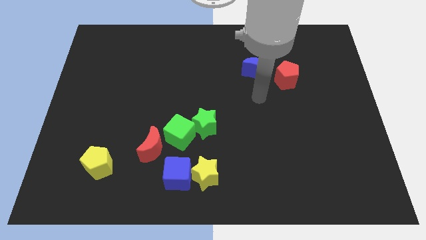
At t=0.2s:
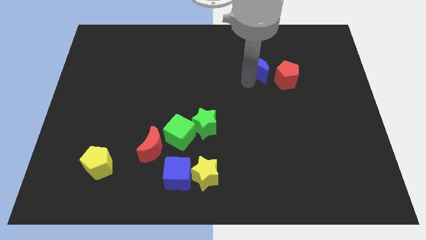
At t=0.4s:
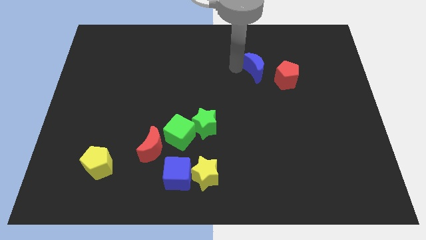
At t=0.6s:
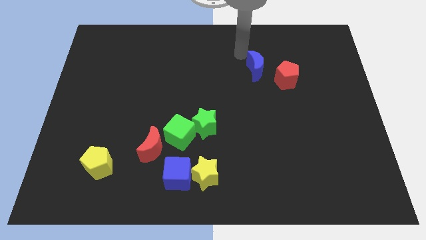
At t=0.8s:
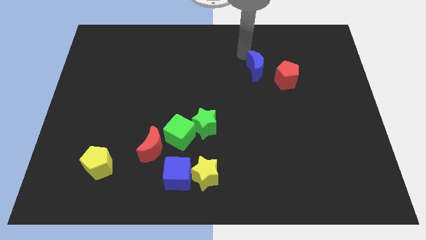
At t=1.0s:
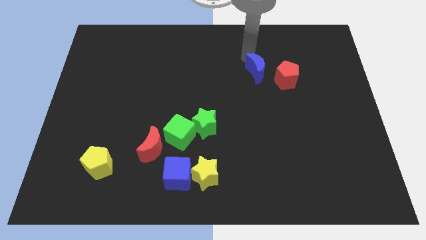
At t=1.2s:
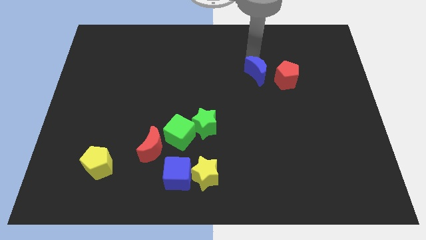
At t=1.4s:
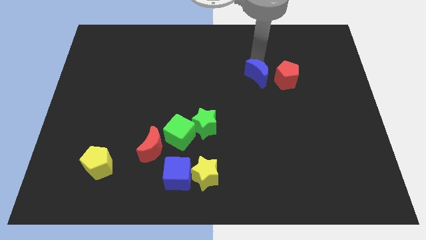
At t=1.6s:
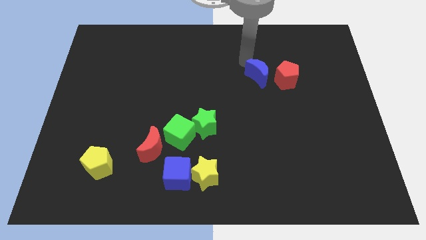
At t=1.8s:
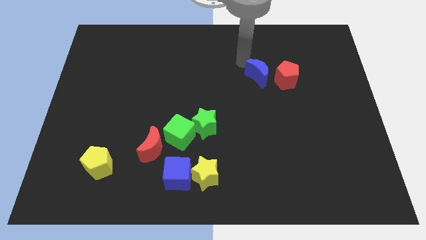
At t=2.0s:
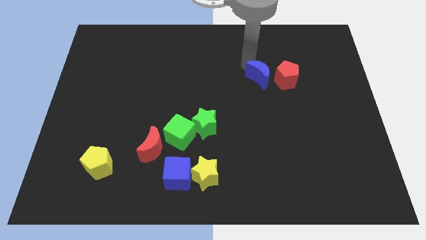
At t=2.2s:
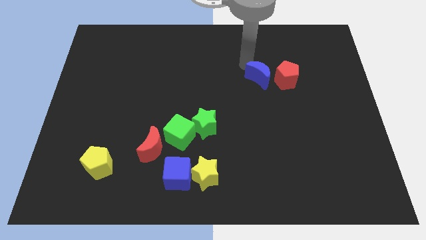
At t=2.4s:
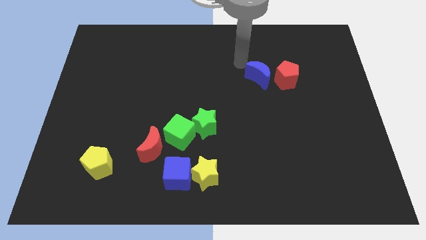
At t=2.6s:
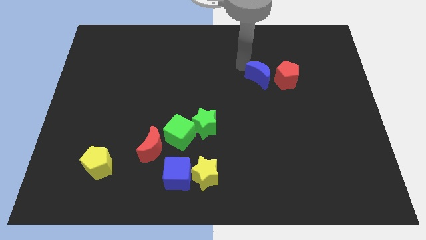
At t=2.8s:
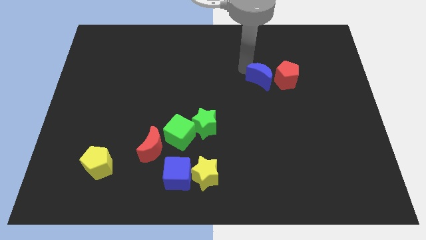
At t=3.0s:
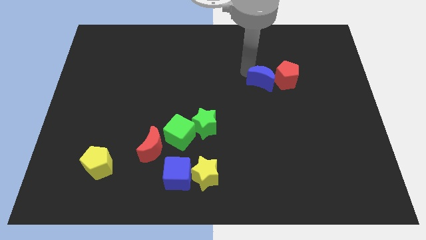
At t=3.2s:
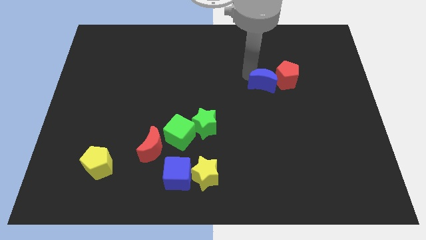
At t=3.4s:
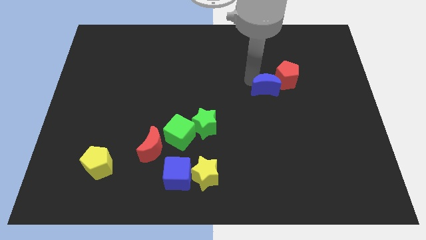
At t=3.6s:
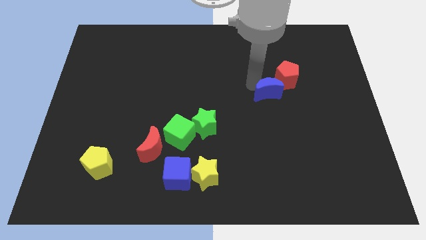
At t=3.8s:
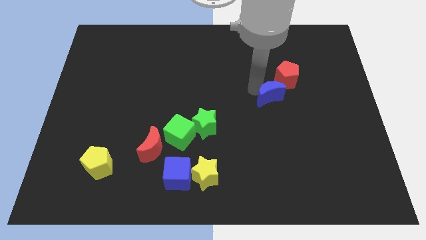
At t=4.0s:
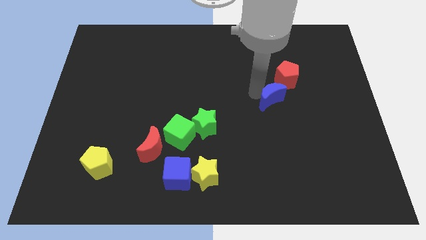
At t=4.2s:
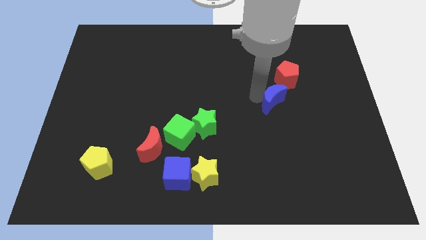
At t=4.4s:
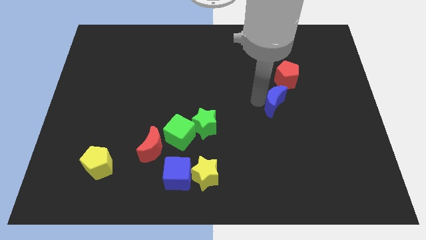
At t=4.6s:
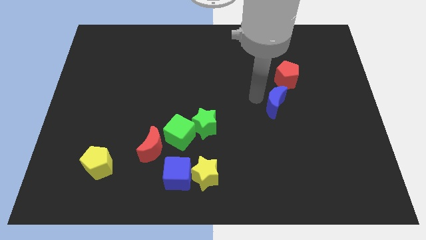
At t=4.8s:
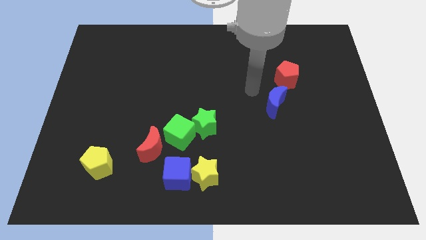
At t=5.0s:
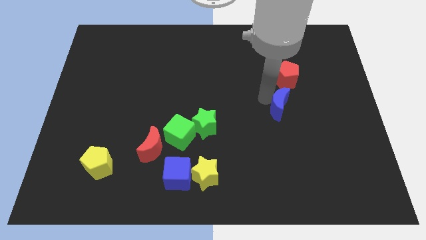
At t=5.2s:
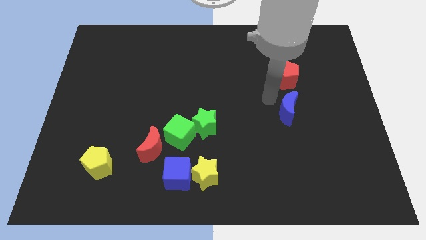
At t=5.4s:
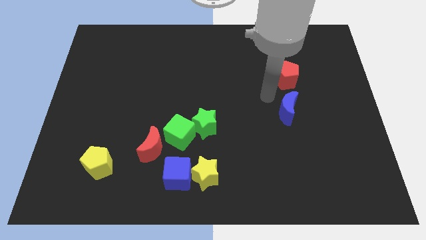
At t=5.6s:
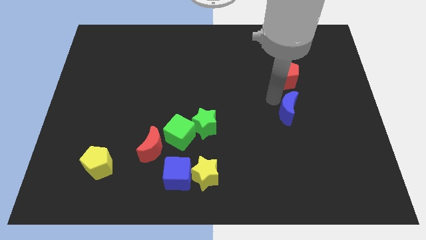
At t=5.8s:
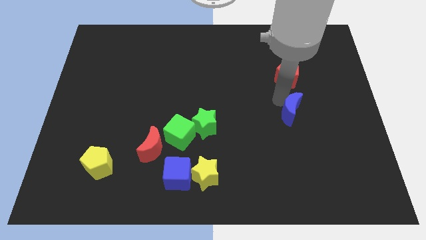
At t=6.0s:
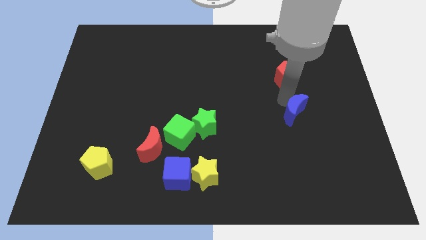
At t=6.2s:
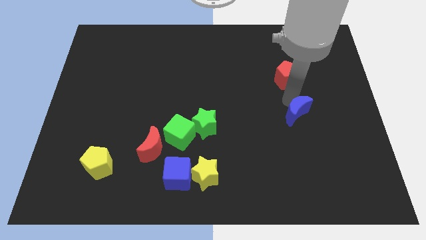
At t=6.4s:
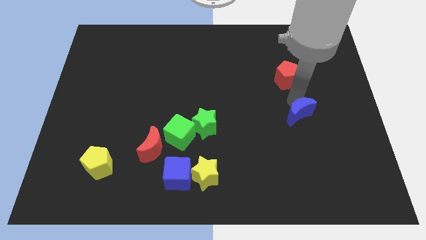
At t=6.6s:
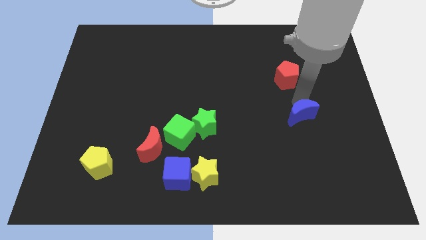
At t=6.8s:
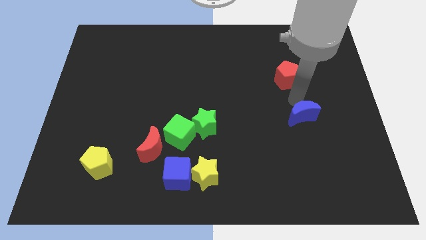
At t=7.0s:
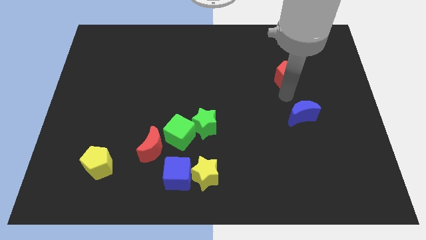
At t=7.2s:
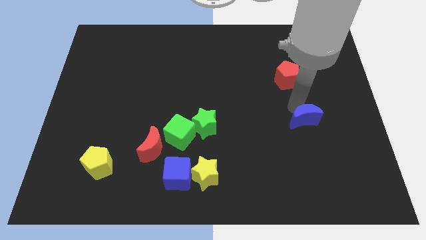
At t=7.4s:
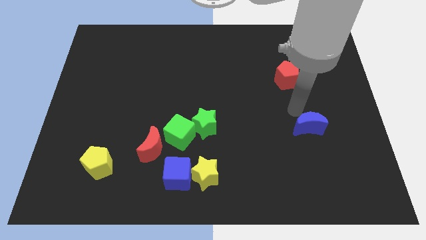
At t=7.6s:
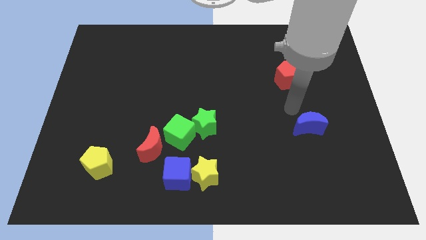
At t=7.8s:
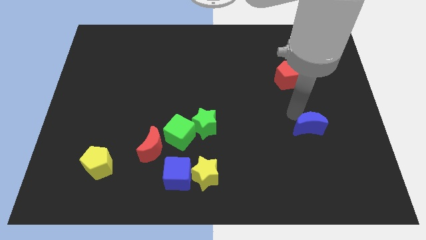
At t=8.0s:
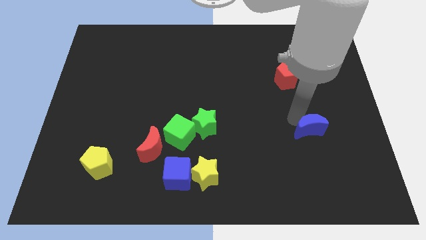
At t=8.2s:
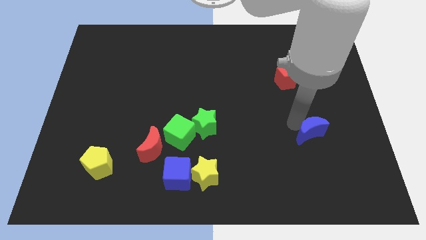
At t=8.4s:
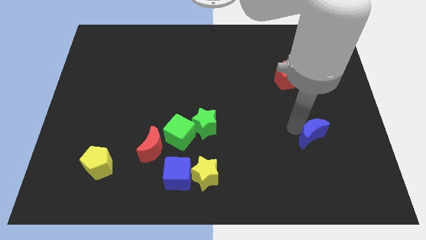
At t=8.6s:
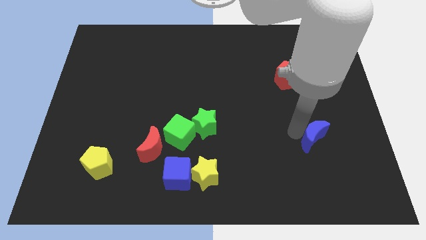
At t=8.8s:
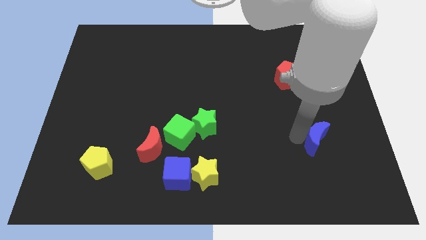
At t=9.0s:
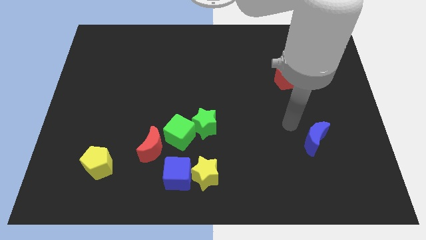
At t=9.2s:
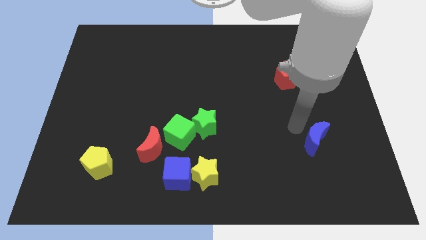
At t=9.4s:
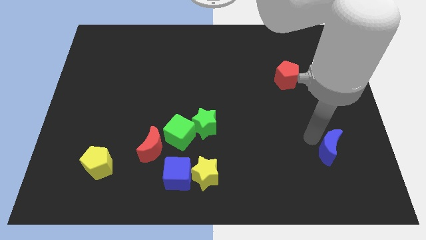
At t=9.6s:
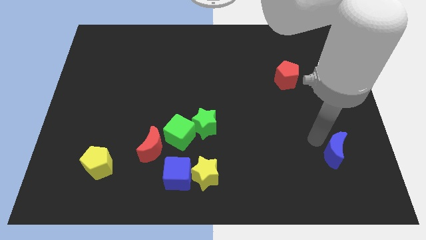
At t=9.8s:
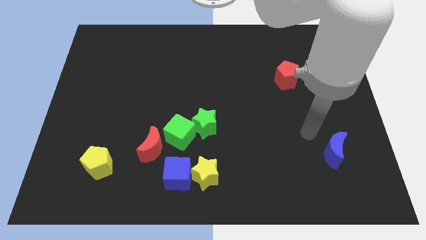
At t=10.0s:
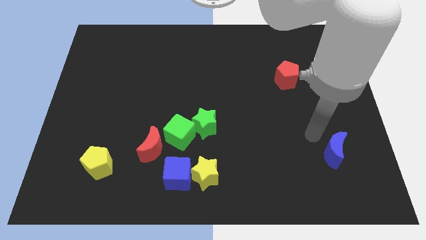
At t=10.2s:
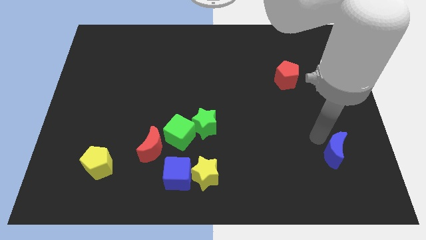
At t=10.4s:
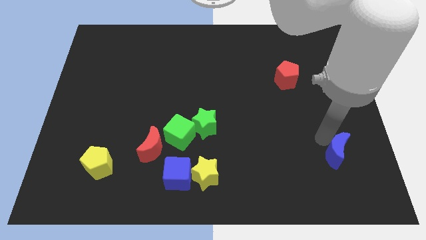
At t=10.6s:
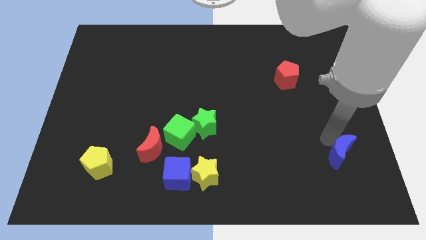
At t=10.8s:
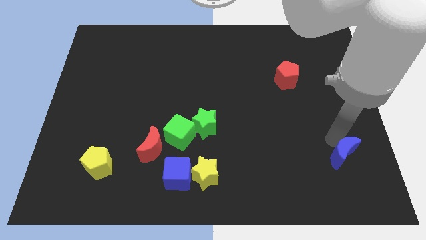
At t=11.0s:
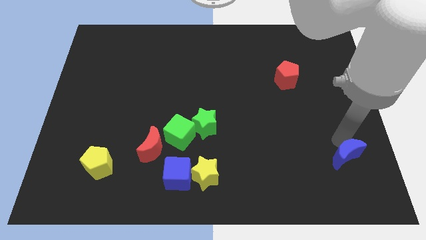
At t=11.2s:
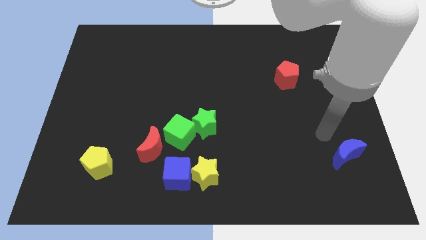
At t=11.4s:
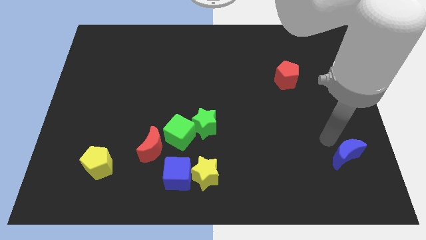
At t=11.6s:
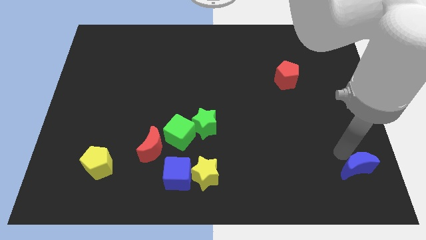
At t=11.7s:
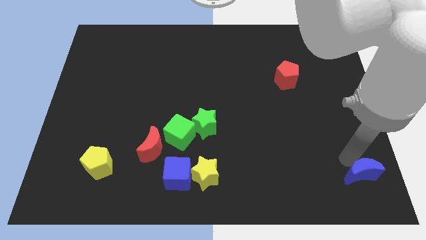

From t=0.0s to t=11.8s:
put the blue moon to the bottom right of the board
